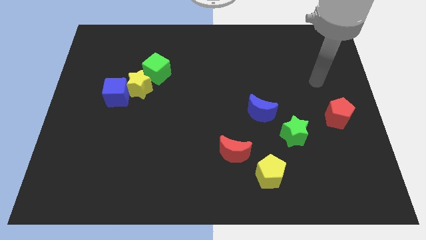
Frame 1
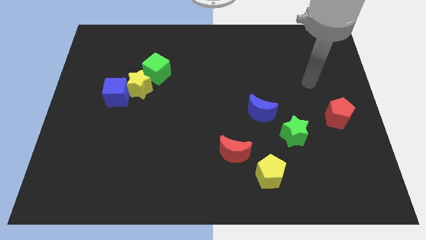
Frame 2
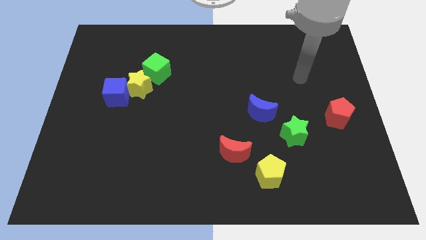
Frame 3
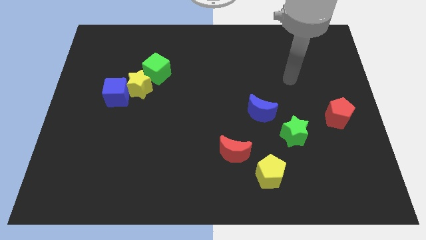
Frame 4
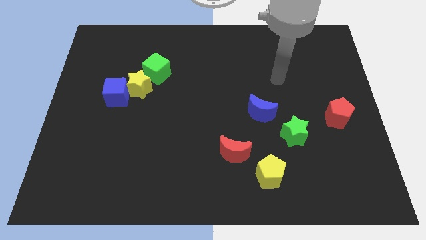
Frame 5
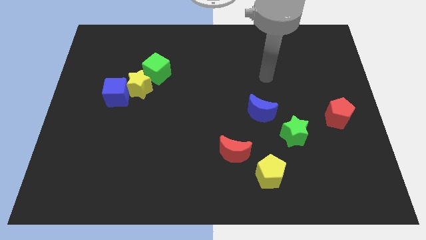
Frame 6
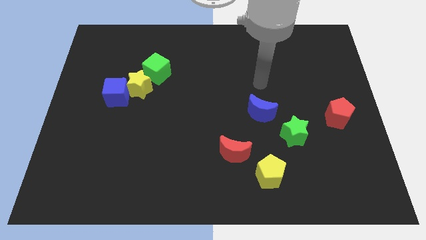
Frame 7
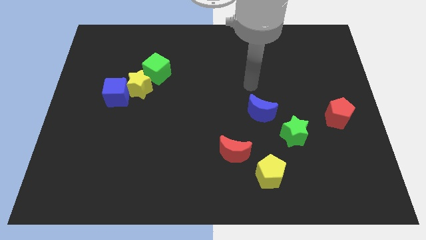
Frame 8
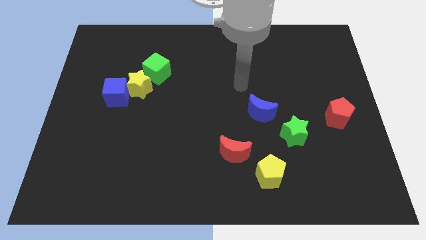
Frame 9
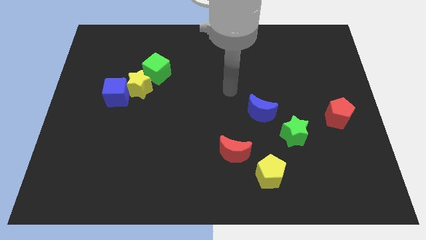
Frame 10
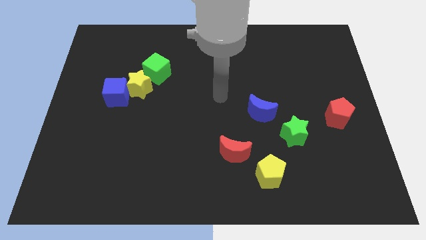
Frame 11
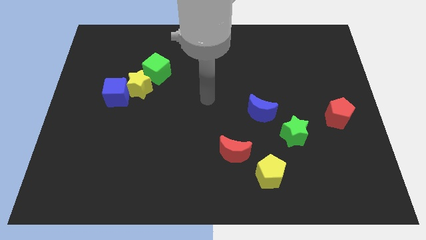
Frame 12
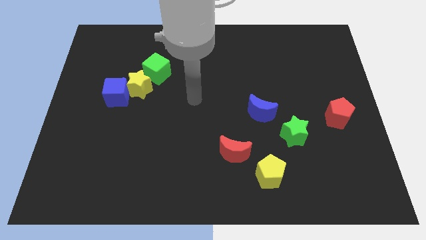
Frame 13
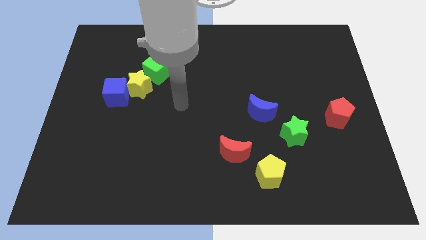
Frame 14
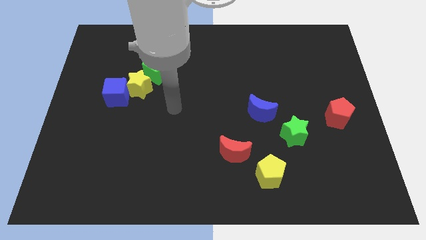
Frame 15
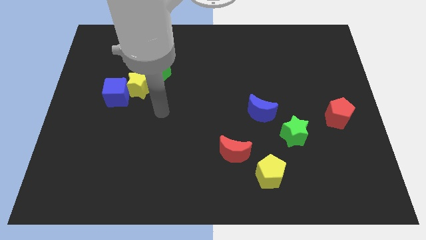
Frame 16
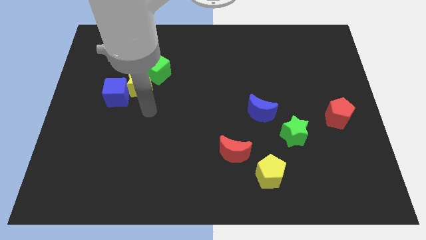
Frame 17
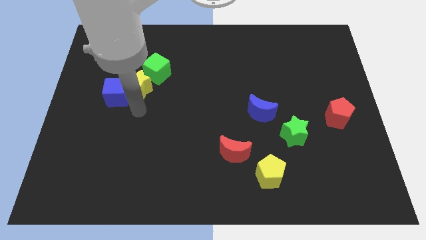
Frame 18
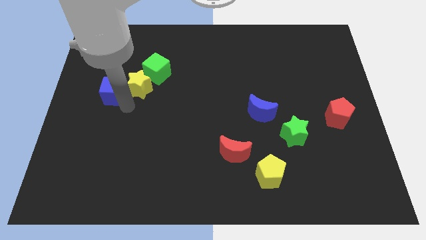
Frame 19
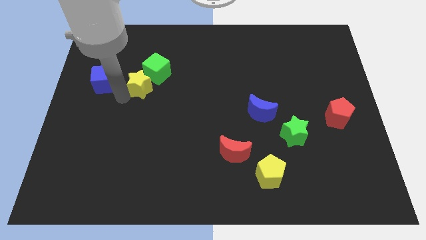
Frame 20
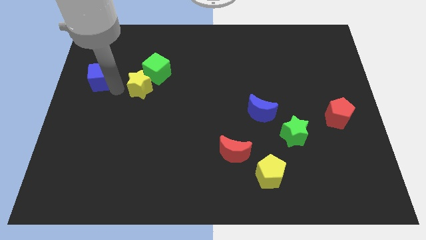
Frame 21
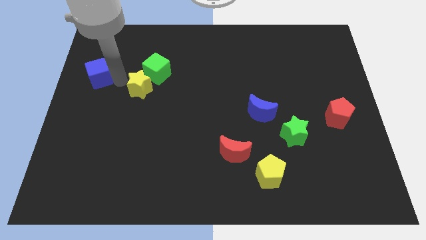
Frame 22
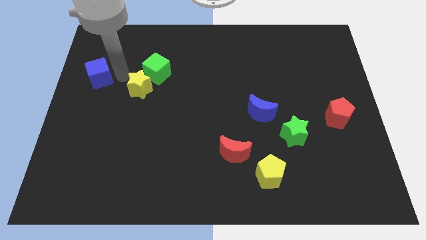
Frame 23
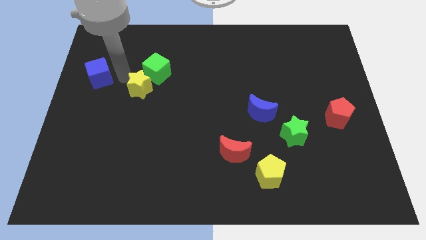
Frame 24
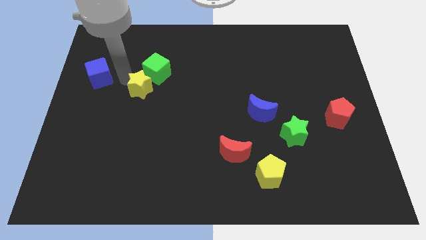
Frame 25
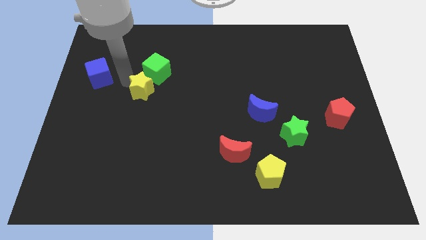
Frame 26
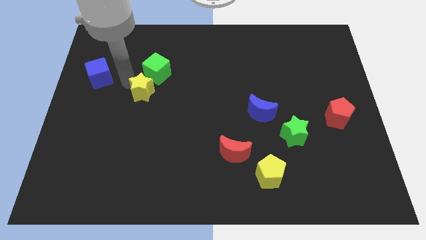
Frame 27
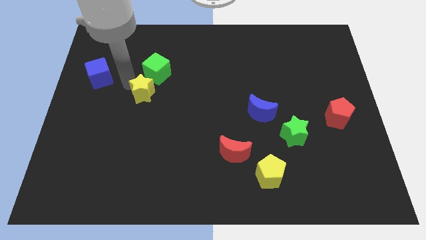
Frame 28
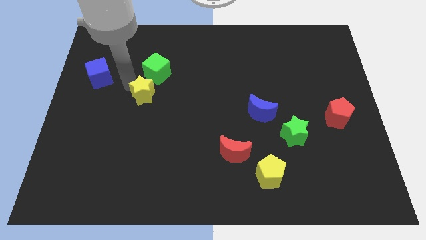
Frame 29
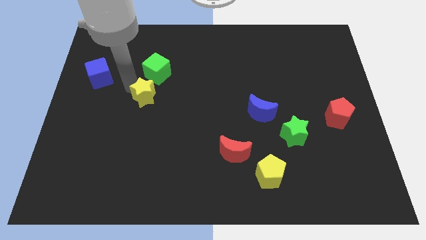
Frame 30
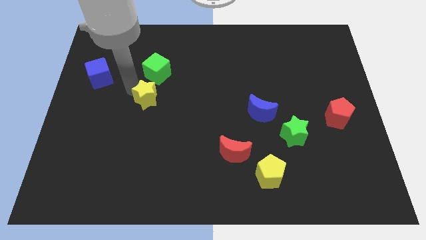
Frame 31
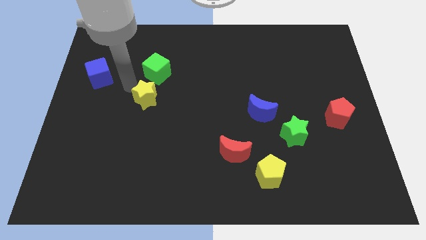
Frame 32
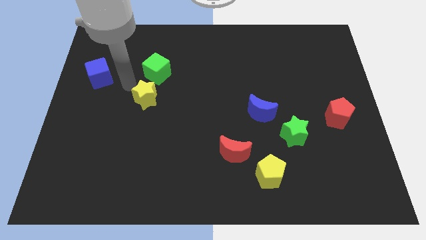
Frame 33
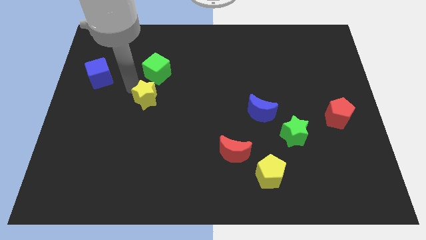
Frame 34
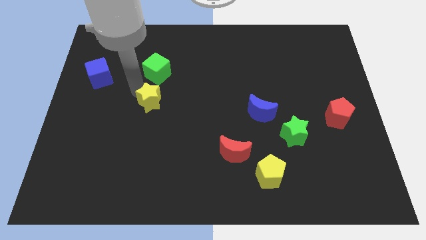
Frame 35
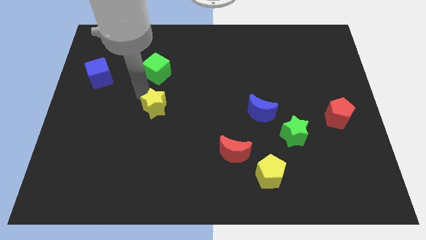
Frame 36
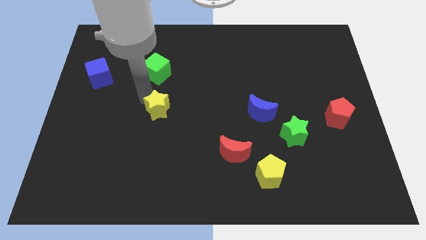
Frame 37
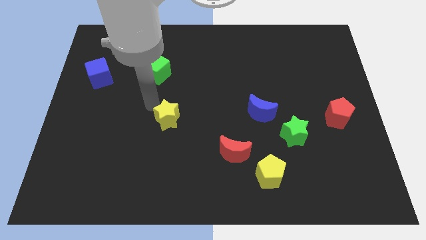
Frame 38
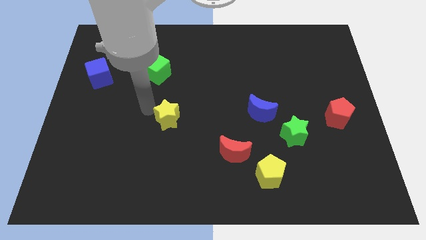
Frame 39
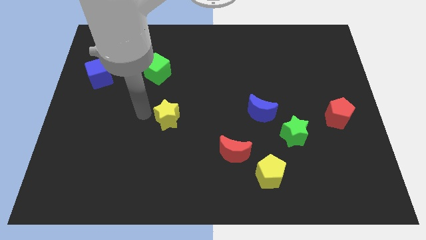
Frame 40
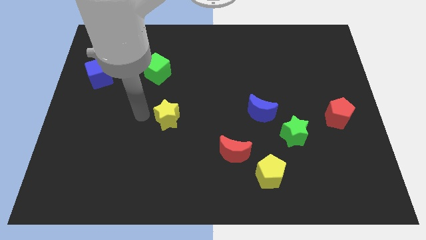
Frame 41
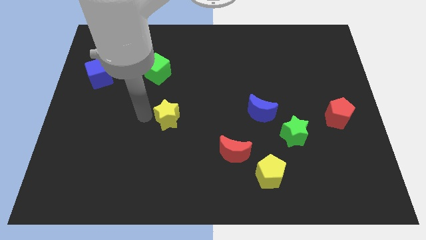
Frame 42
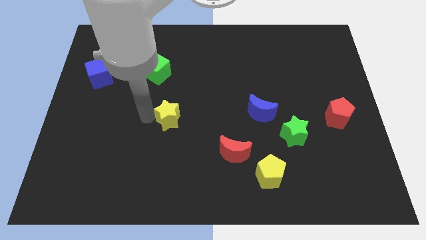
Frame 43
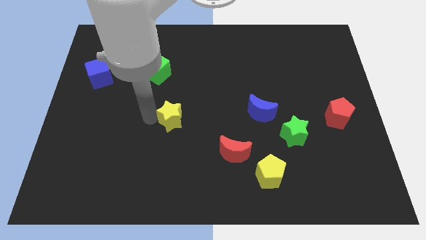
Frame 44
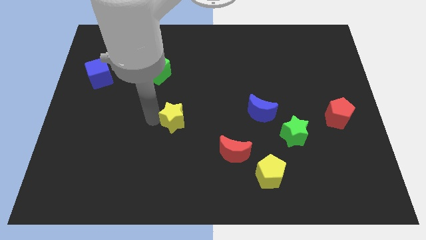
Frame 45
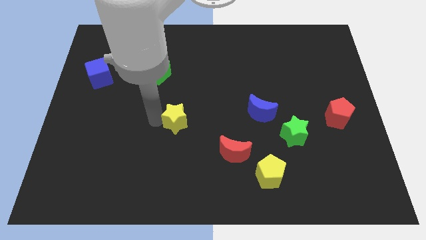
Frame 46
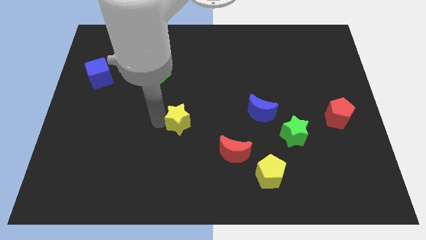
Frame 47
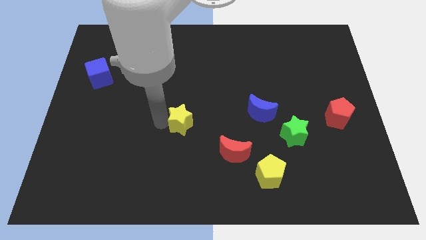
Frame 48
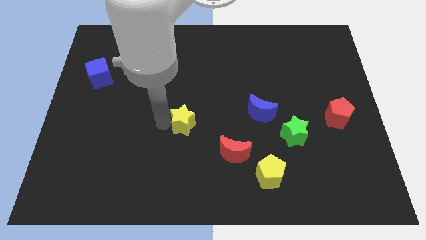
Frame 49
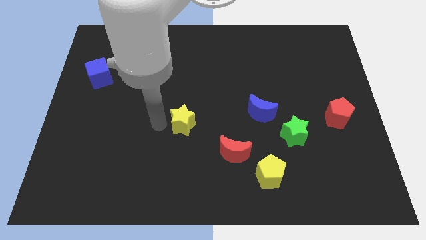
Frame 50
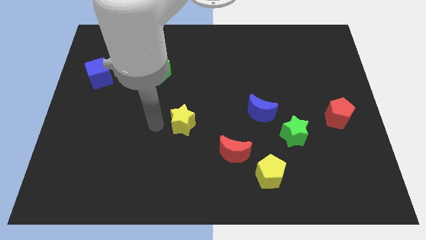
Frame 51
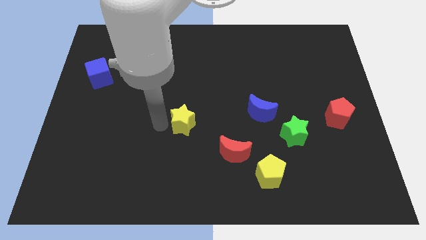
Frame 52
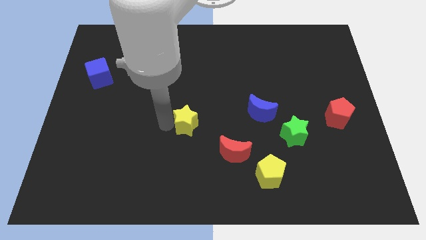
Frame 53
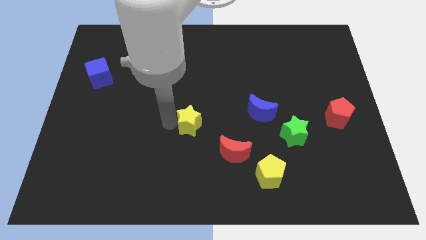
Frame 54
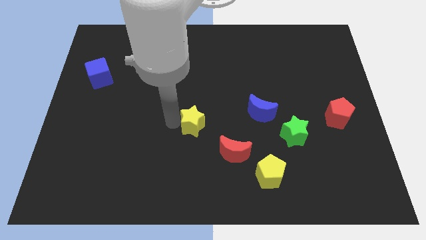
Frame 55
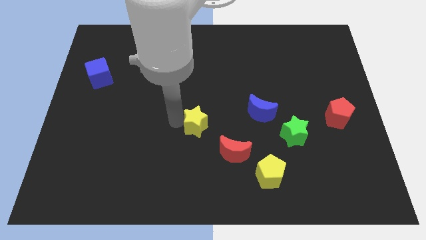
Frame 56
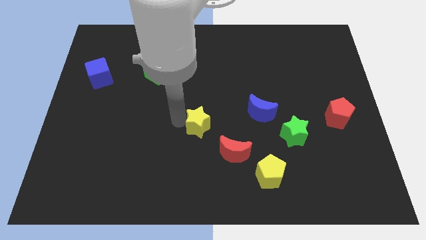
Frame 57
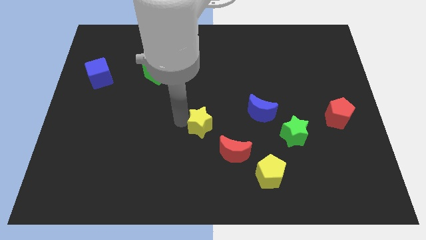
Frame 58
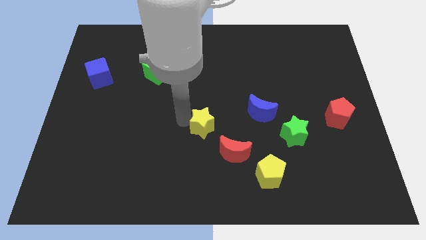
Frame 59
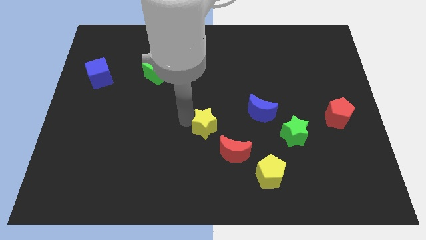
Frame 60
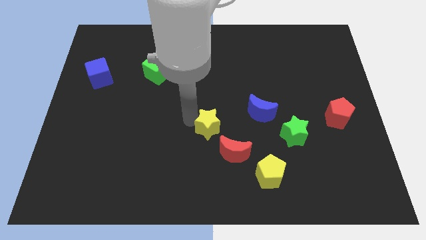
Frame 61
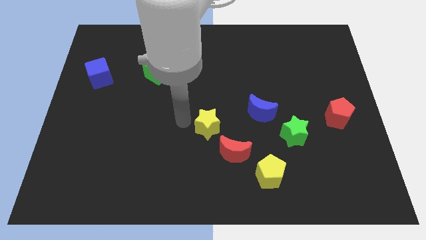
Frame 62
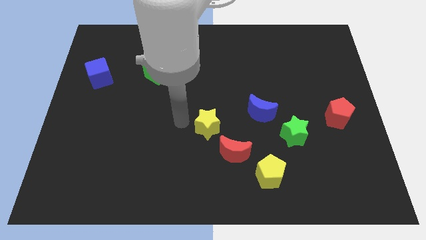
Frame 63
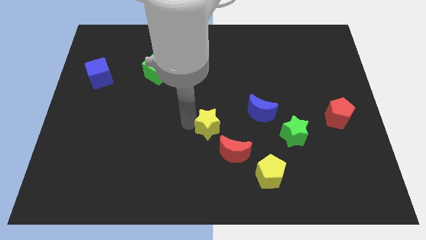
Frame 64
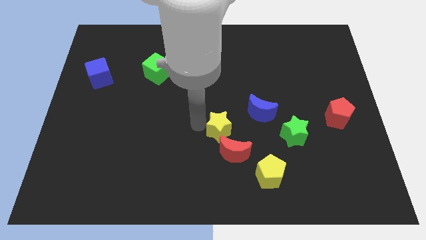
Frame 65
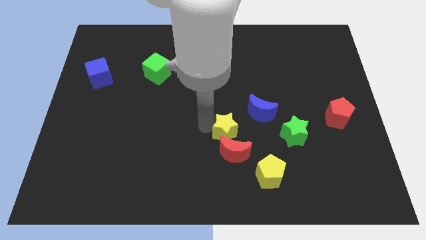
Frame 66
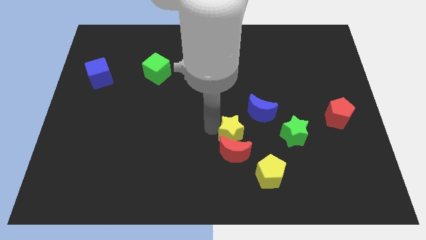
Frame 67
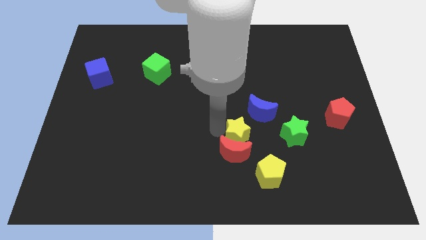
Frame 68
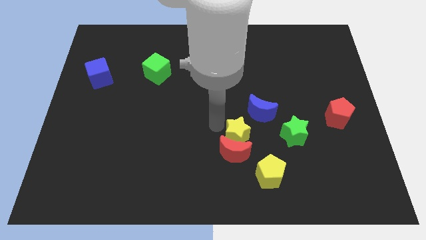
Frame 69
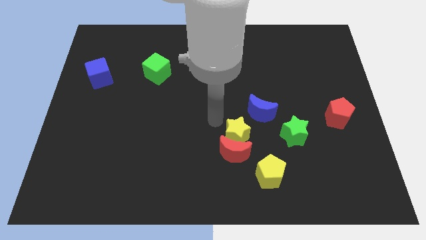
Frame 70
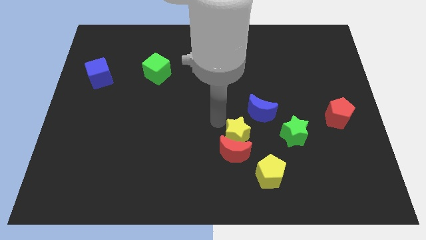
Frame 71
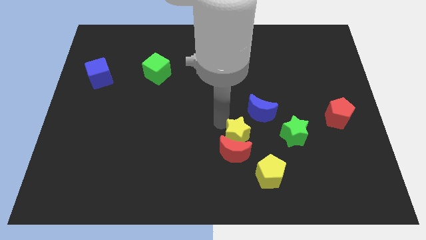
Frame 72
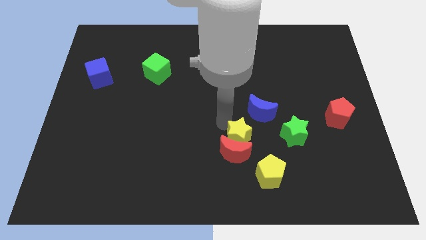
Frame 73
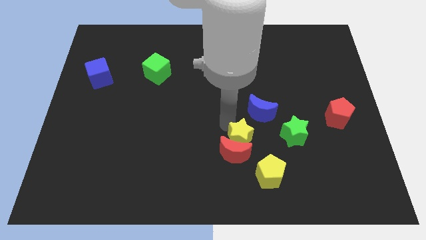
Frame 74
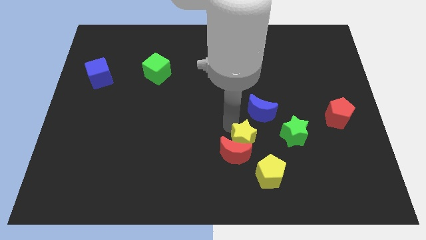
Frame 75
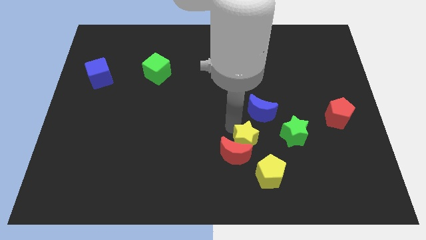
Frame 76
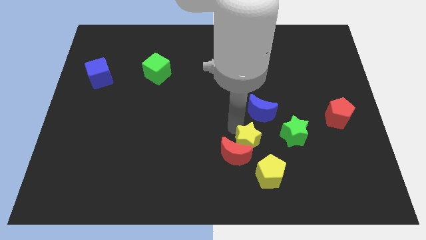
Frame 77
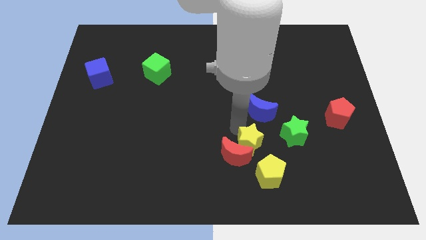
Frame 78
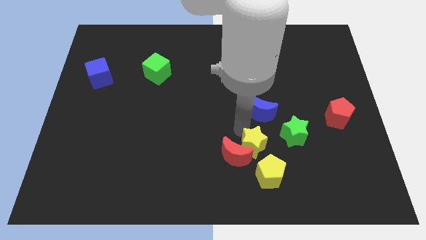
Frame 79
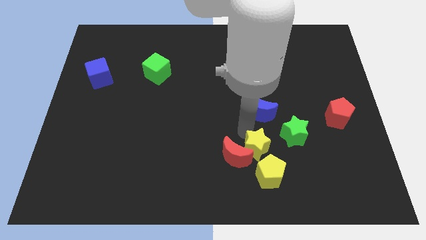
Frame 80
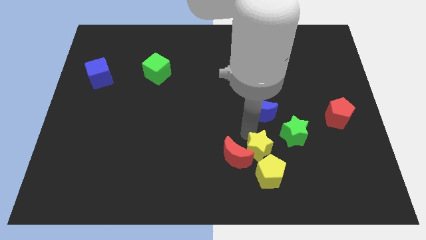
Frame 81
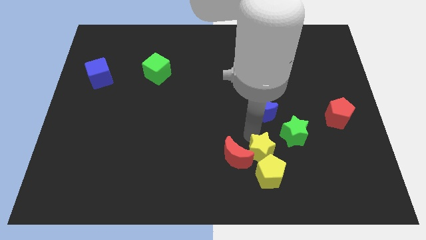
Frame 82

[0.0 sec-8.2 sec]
slide the yellow star to the top right side of the yellow pentagon
